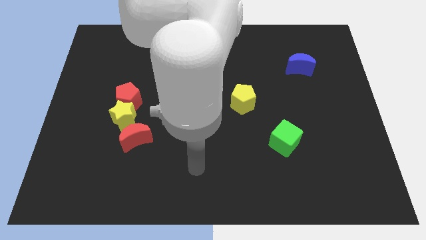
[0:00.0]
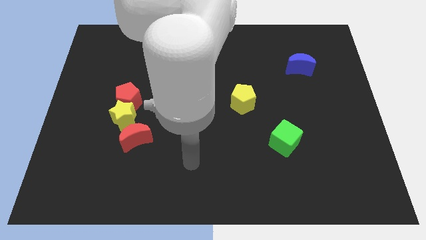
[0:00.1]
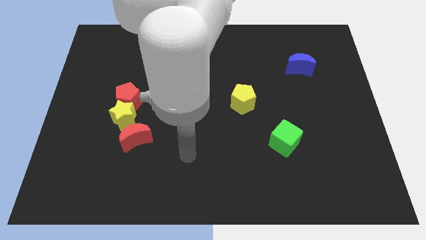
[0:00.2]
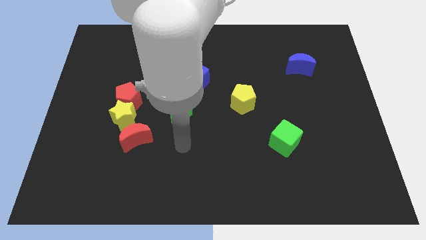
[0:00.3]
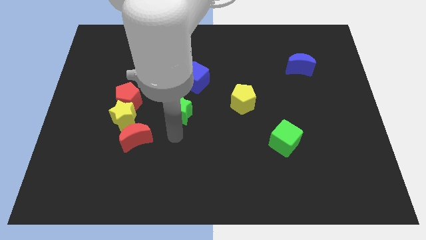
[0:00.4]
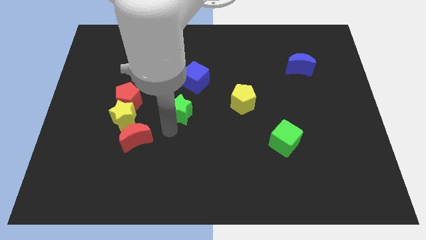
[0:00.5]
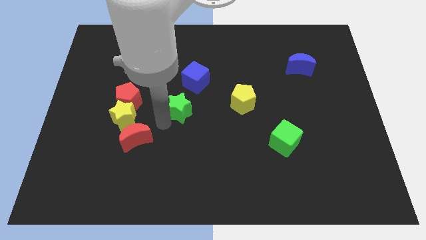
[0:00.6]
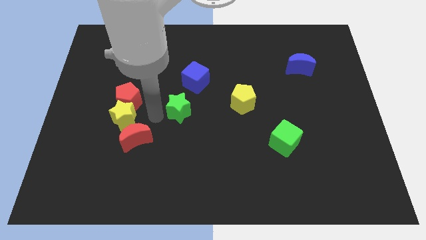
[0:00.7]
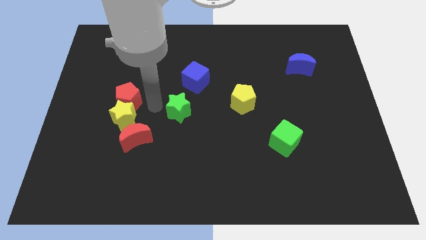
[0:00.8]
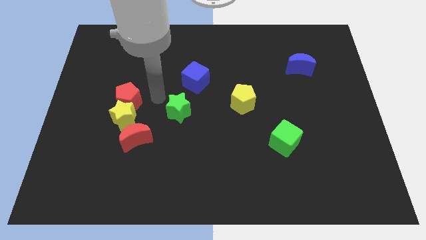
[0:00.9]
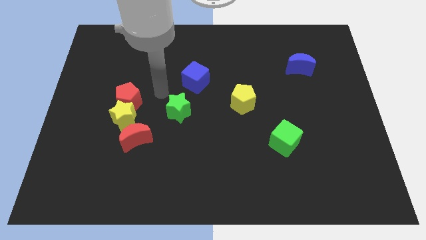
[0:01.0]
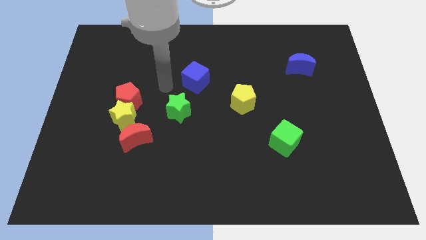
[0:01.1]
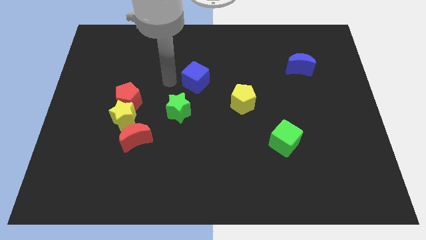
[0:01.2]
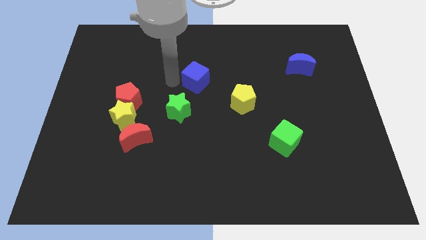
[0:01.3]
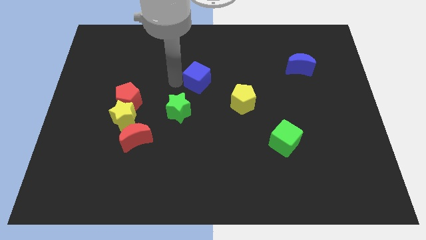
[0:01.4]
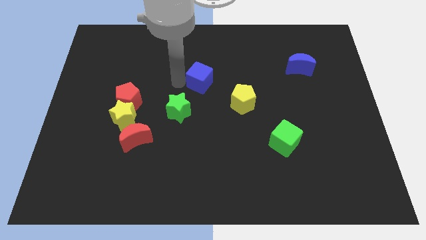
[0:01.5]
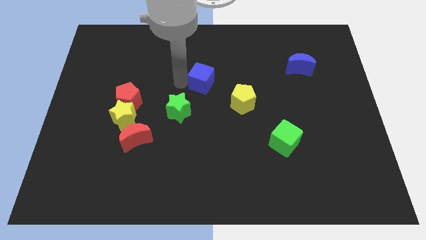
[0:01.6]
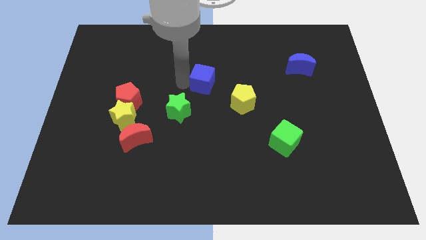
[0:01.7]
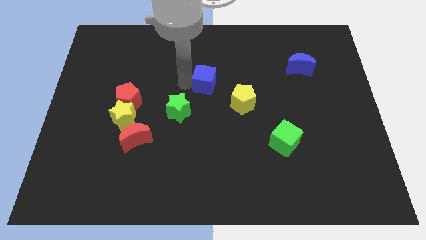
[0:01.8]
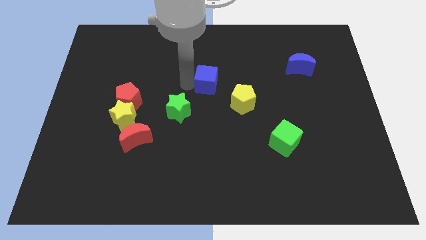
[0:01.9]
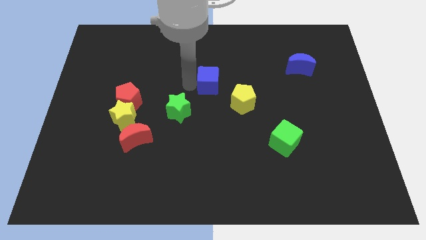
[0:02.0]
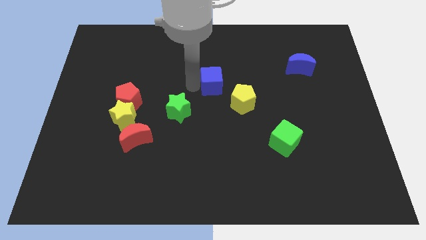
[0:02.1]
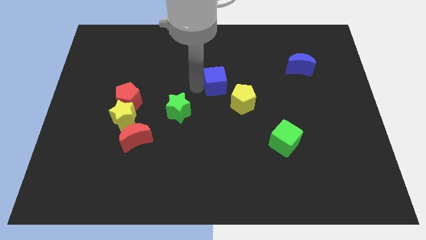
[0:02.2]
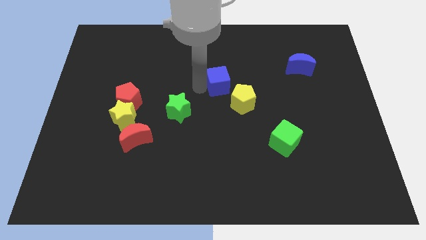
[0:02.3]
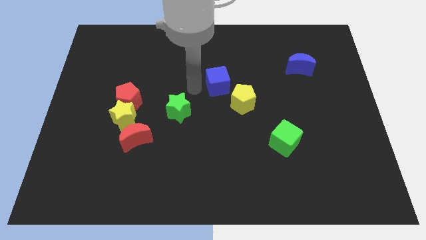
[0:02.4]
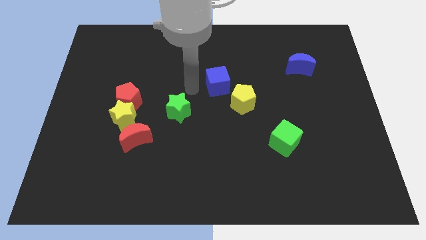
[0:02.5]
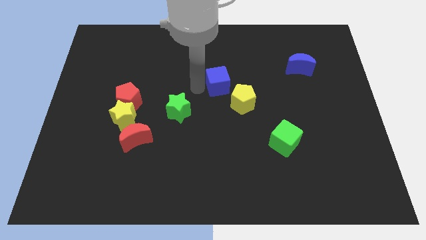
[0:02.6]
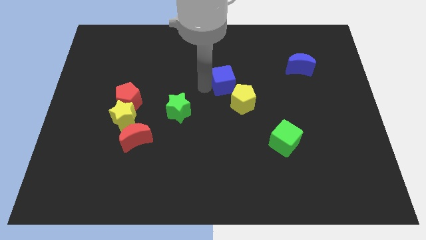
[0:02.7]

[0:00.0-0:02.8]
slightly slide the blue cube to the right

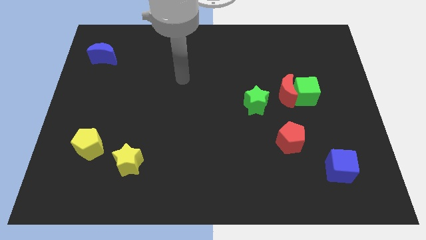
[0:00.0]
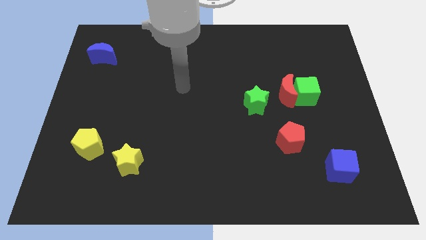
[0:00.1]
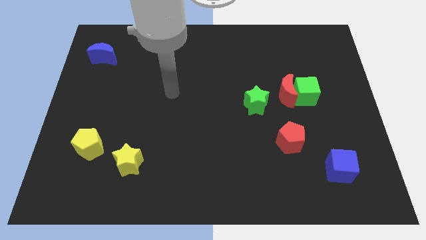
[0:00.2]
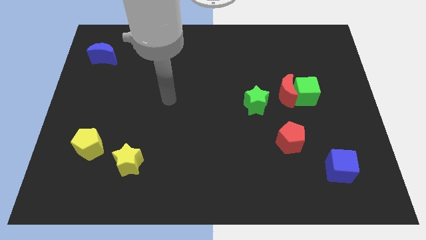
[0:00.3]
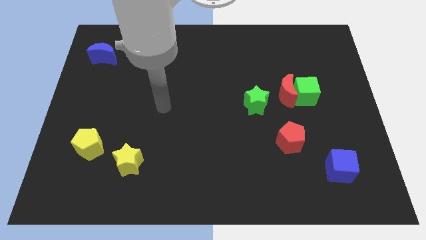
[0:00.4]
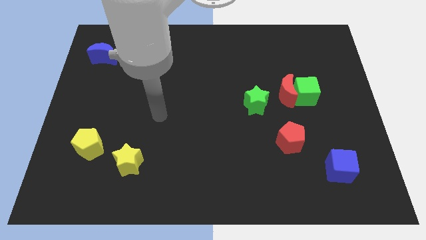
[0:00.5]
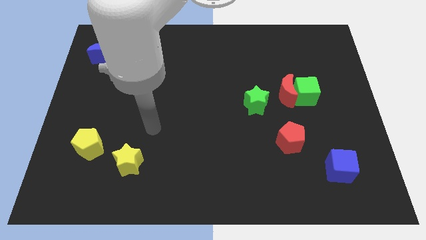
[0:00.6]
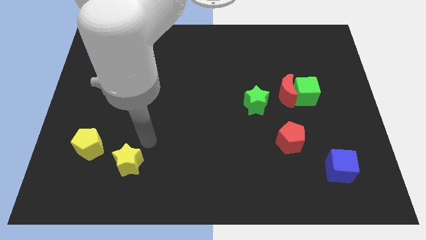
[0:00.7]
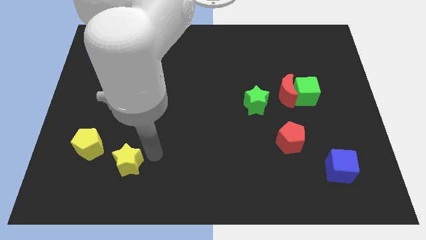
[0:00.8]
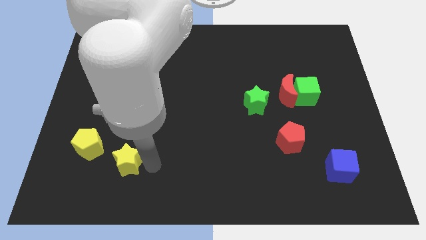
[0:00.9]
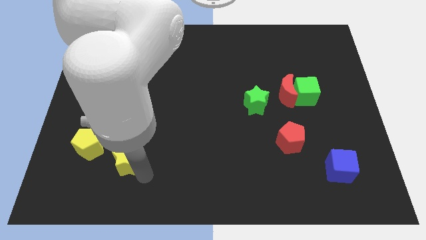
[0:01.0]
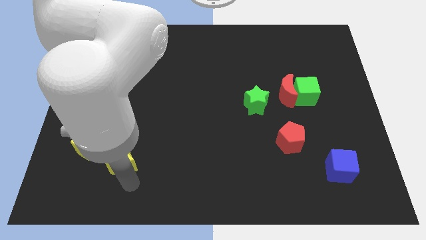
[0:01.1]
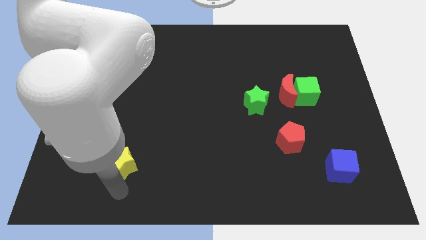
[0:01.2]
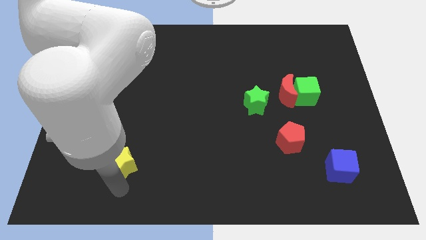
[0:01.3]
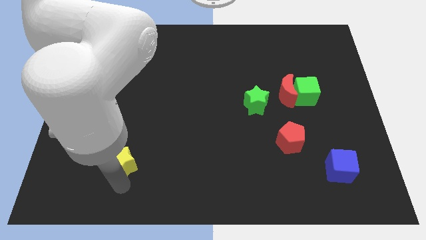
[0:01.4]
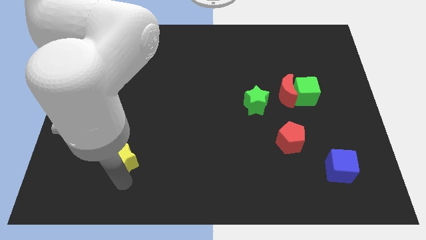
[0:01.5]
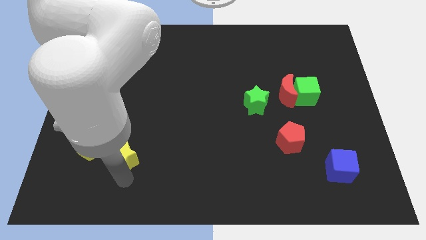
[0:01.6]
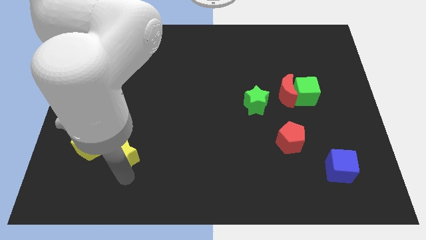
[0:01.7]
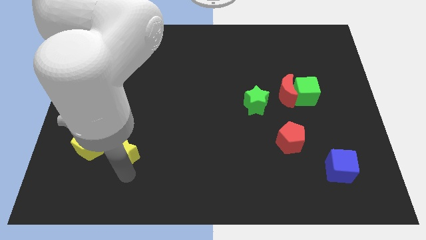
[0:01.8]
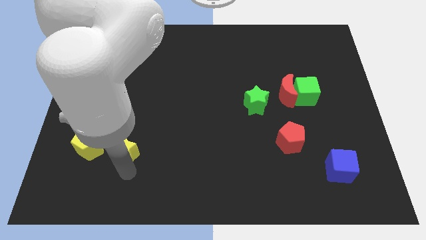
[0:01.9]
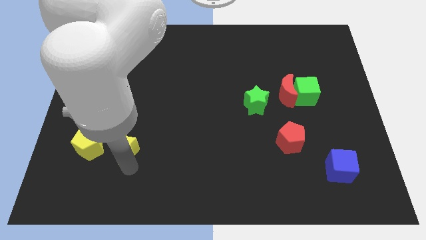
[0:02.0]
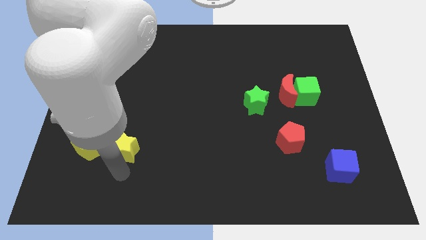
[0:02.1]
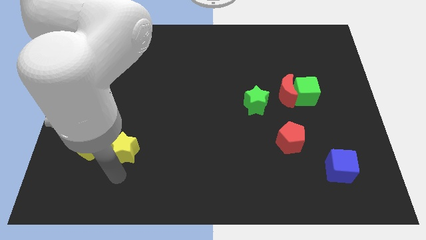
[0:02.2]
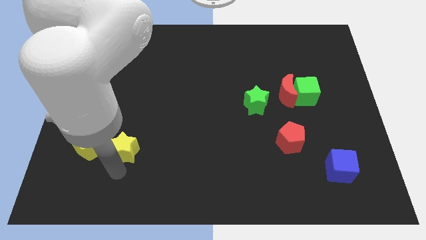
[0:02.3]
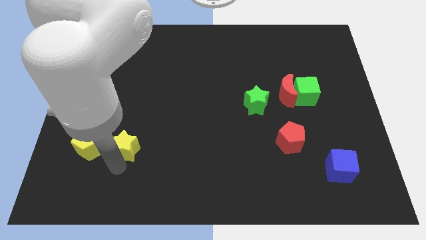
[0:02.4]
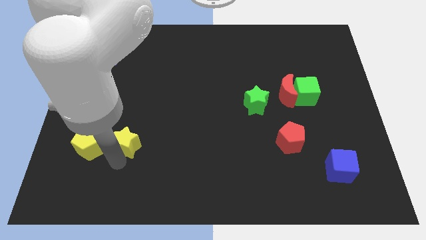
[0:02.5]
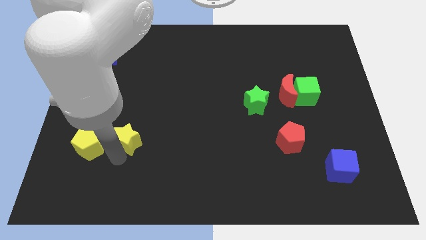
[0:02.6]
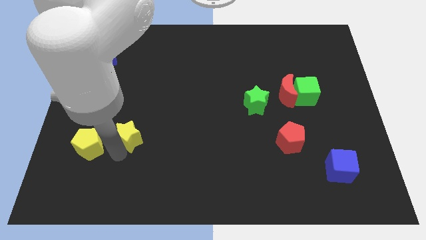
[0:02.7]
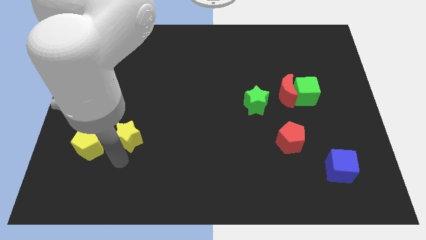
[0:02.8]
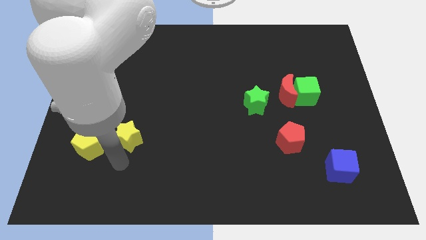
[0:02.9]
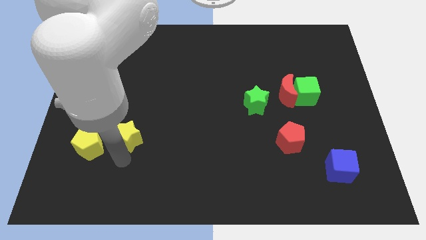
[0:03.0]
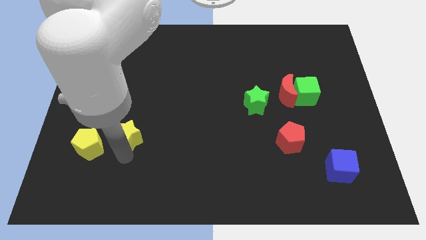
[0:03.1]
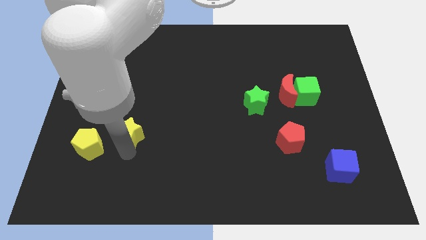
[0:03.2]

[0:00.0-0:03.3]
push the yellow star a little bit upwards

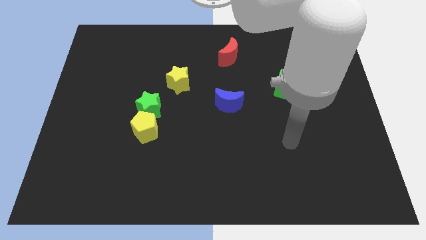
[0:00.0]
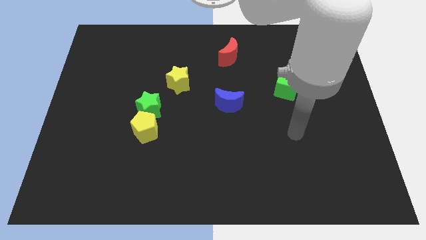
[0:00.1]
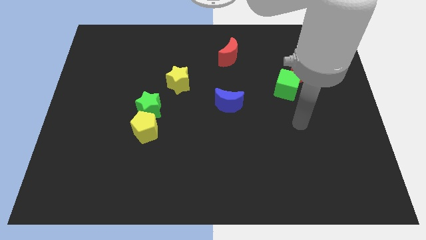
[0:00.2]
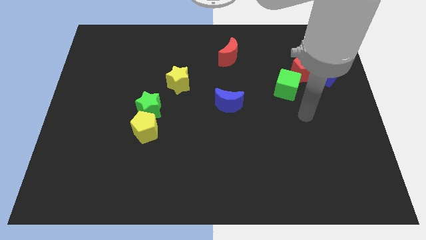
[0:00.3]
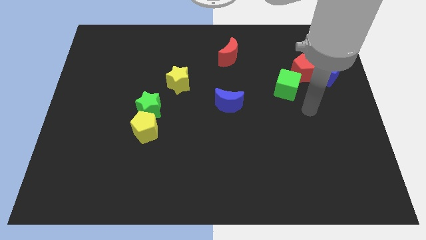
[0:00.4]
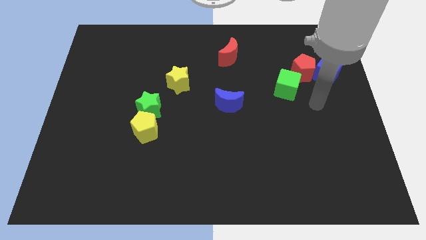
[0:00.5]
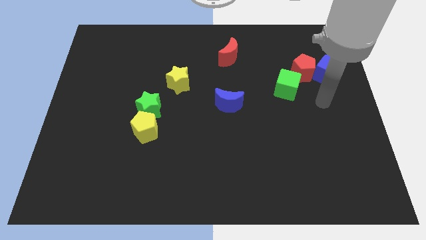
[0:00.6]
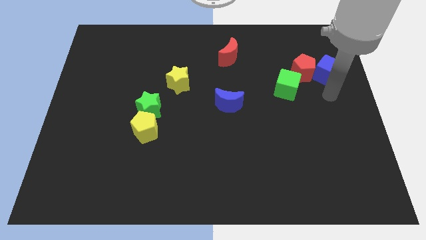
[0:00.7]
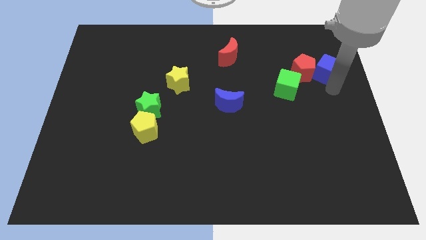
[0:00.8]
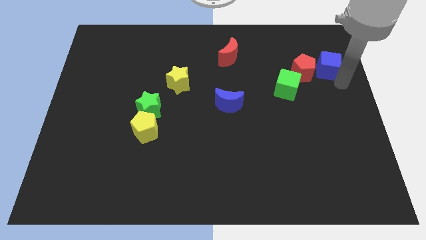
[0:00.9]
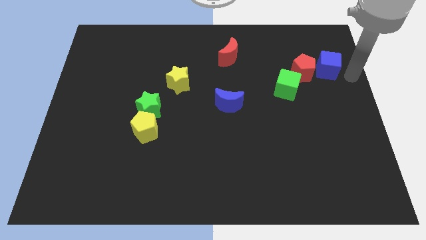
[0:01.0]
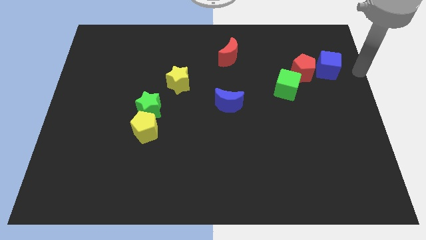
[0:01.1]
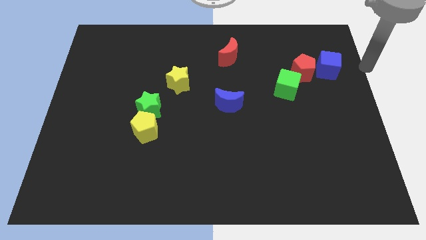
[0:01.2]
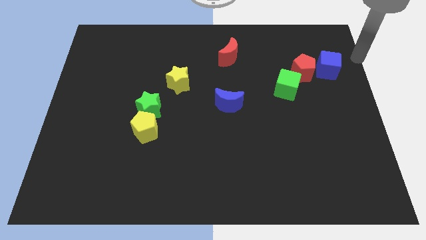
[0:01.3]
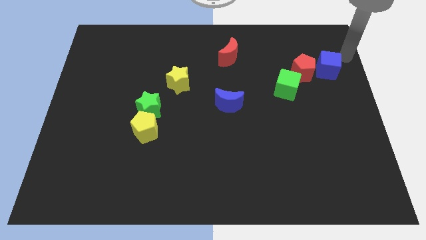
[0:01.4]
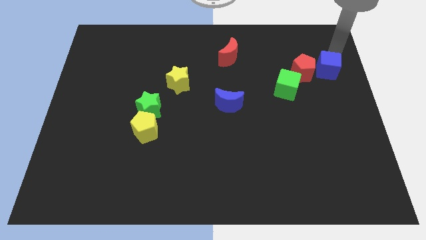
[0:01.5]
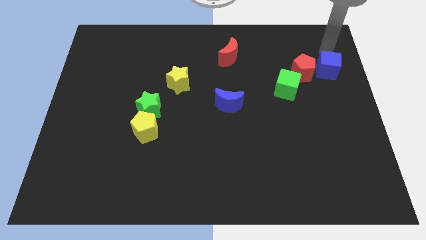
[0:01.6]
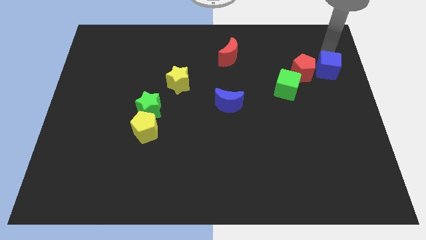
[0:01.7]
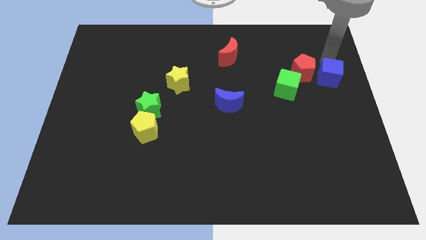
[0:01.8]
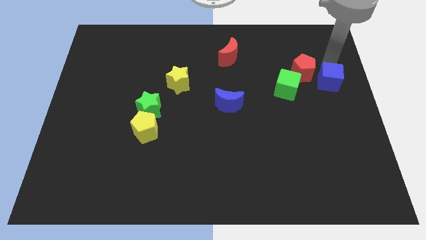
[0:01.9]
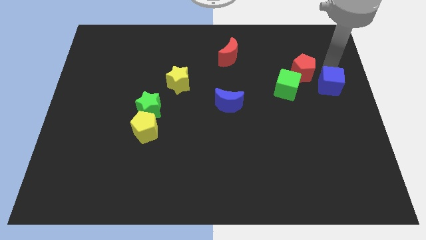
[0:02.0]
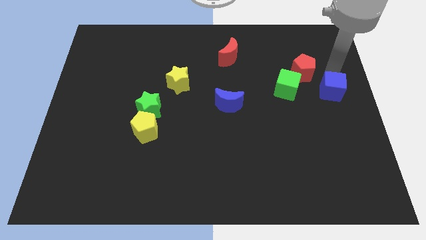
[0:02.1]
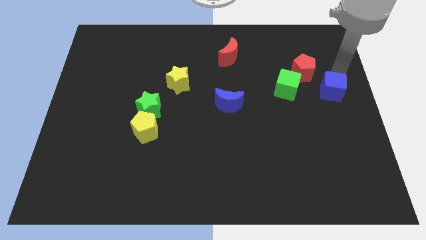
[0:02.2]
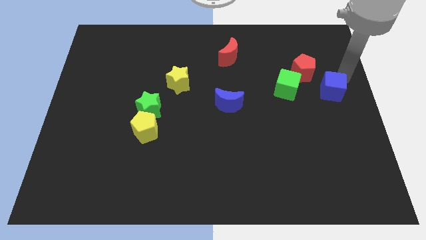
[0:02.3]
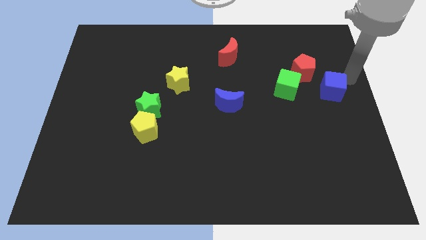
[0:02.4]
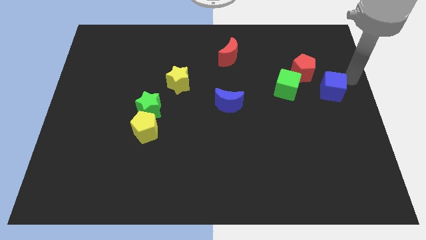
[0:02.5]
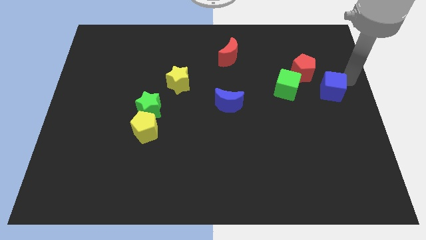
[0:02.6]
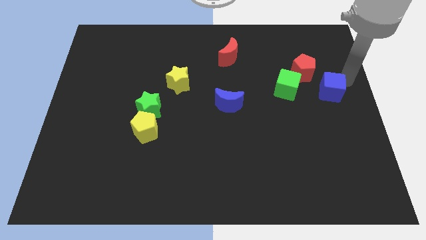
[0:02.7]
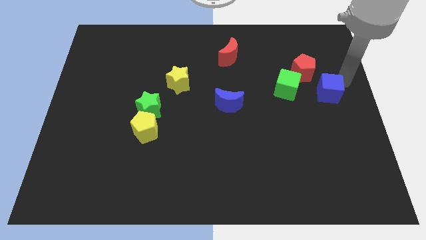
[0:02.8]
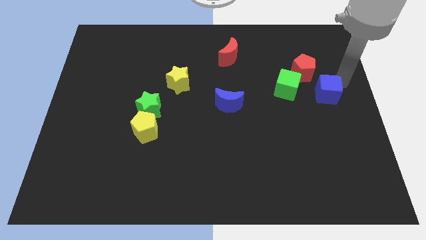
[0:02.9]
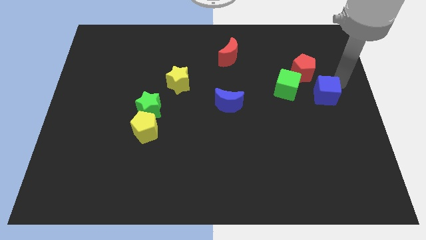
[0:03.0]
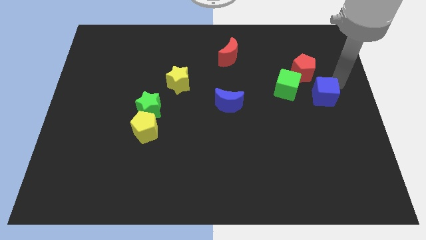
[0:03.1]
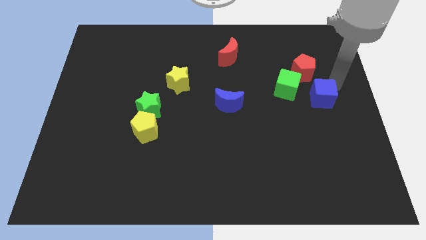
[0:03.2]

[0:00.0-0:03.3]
slightly slide the blue cube down and then to the left
